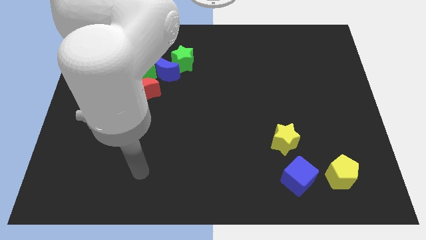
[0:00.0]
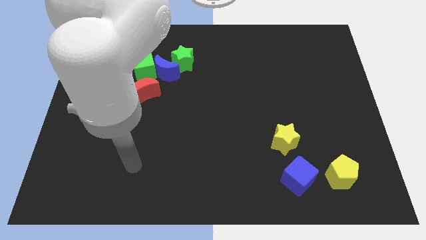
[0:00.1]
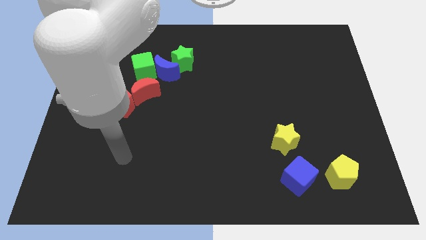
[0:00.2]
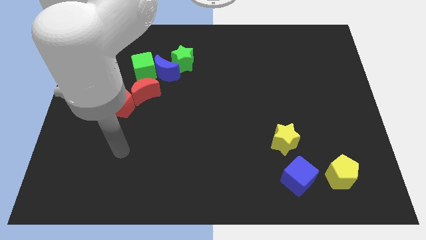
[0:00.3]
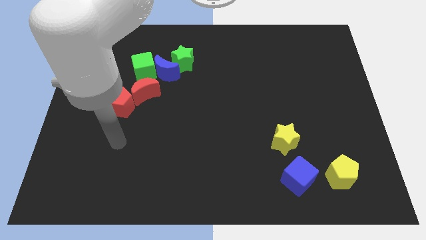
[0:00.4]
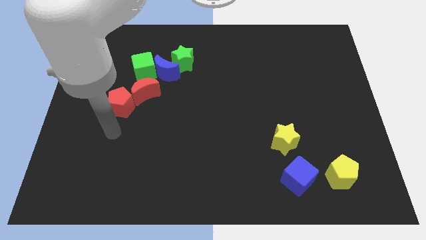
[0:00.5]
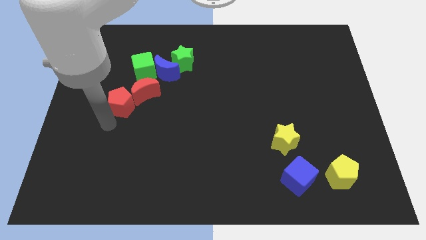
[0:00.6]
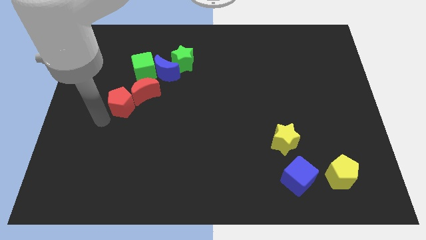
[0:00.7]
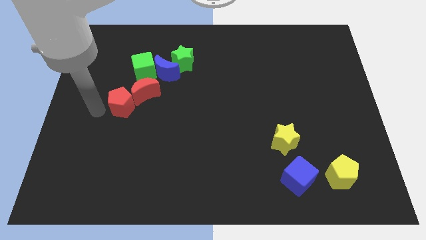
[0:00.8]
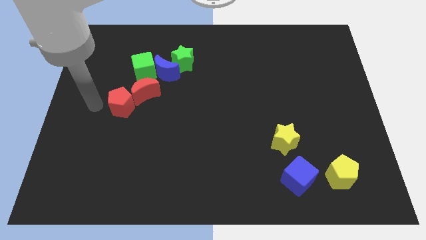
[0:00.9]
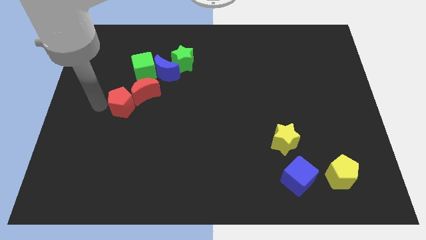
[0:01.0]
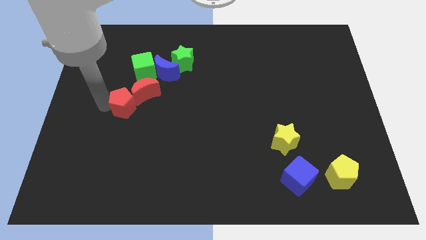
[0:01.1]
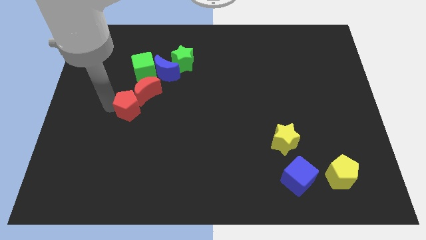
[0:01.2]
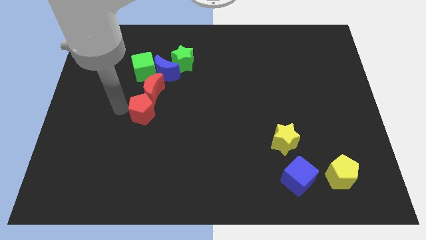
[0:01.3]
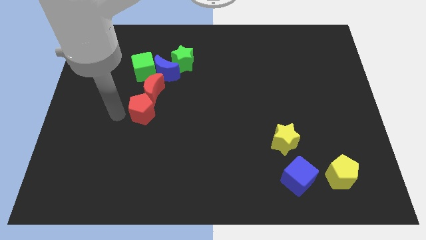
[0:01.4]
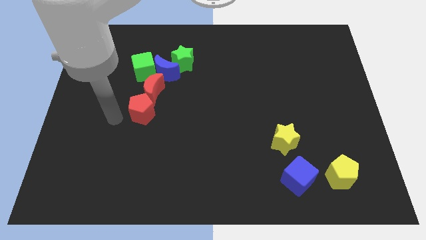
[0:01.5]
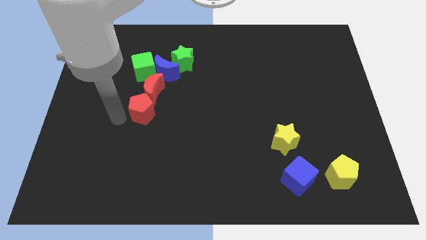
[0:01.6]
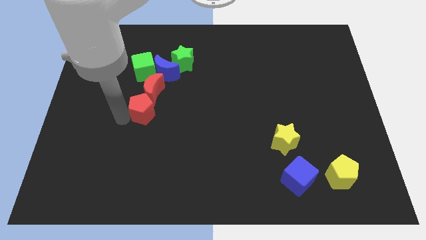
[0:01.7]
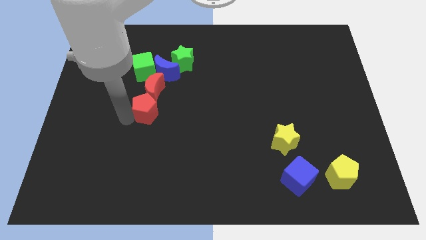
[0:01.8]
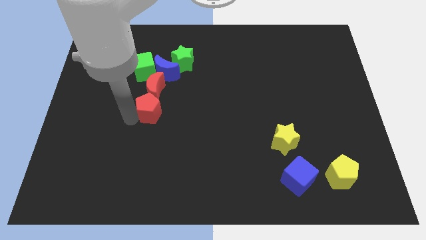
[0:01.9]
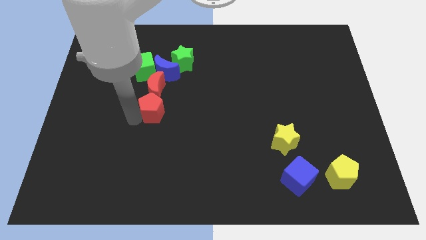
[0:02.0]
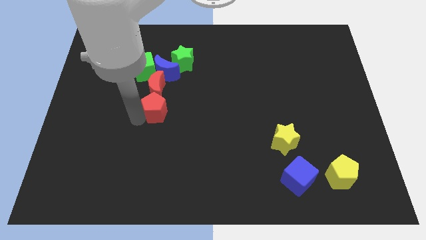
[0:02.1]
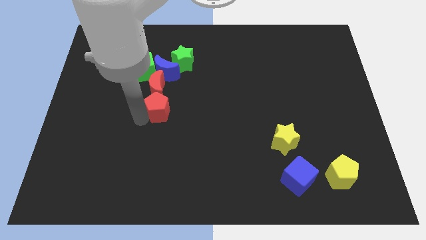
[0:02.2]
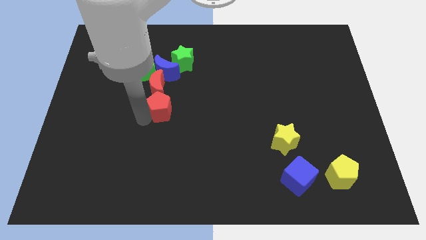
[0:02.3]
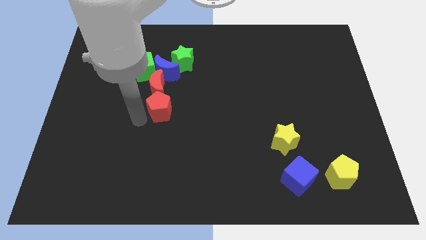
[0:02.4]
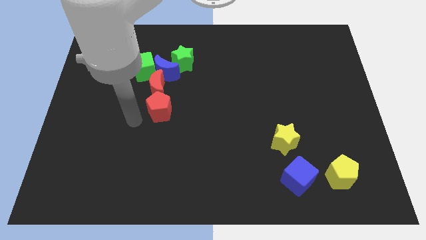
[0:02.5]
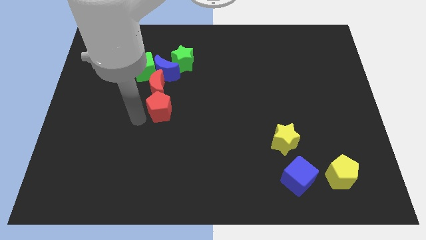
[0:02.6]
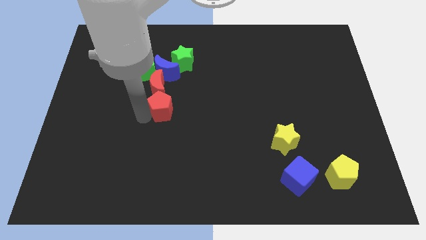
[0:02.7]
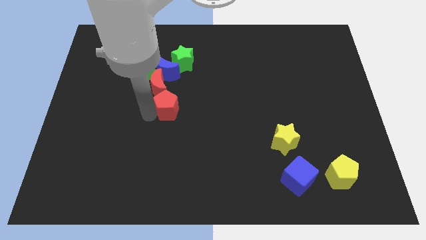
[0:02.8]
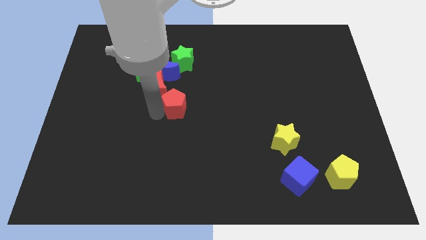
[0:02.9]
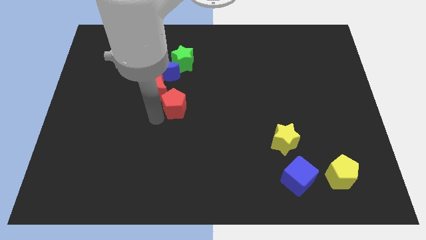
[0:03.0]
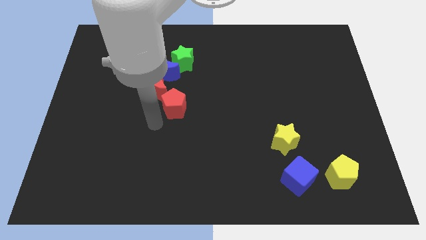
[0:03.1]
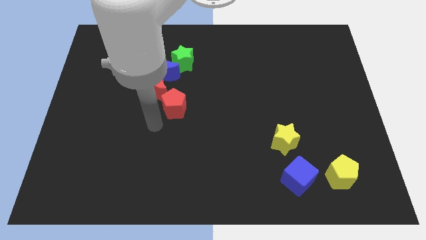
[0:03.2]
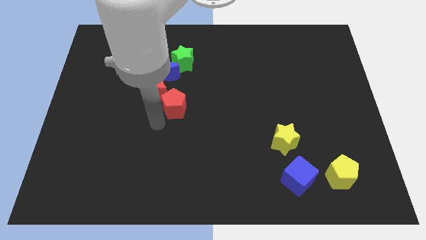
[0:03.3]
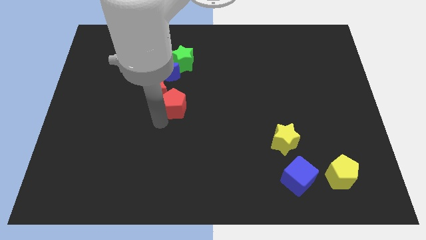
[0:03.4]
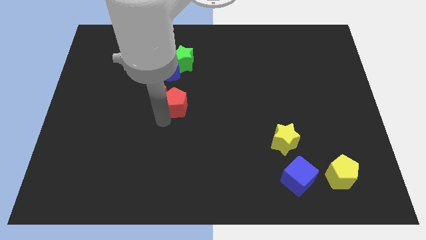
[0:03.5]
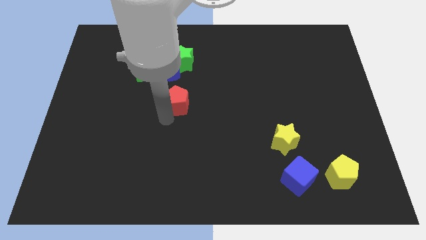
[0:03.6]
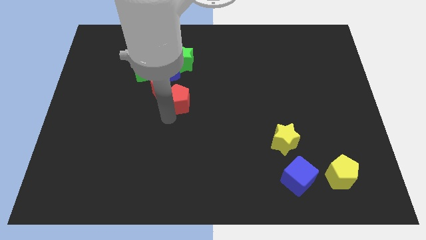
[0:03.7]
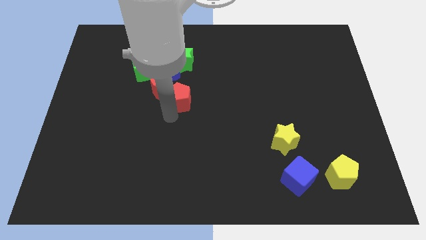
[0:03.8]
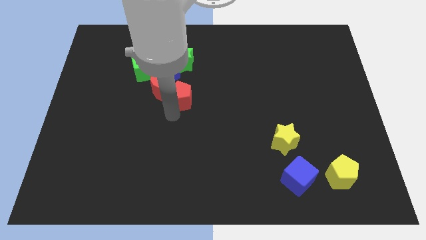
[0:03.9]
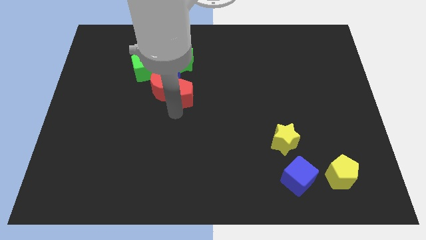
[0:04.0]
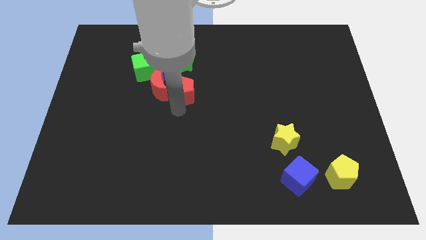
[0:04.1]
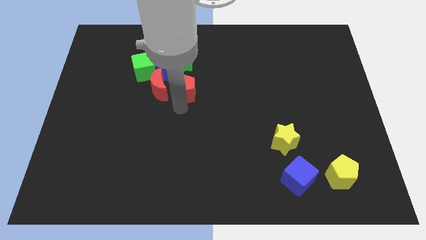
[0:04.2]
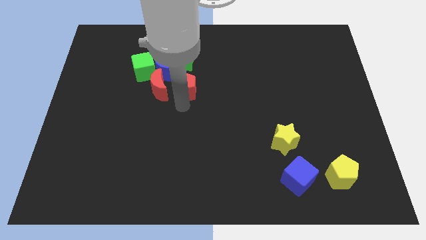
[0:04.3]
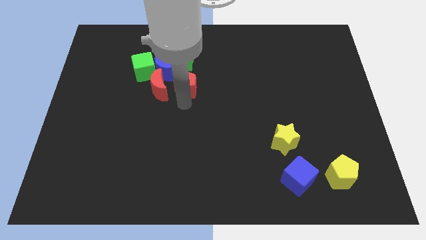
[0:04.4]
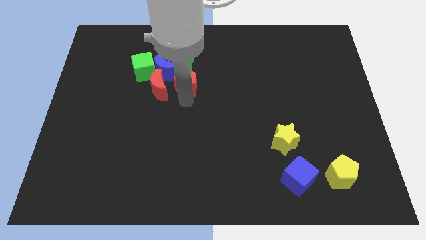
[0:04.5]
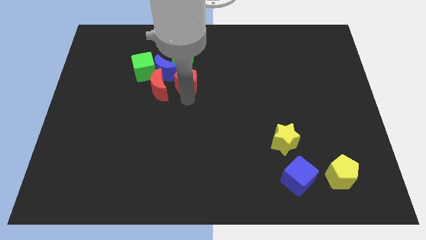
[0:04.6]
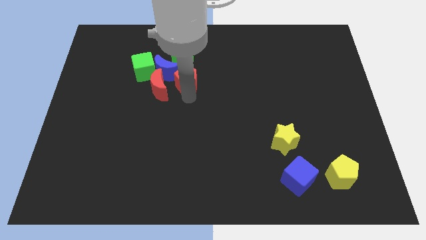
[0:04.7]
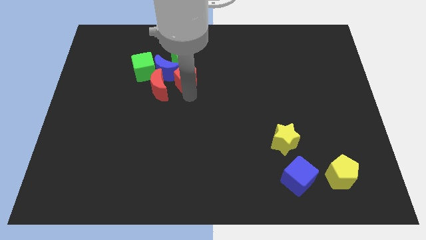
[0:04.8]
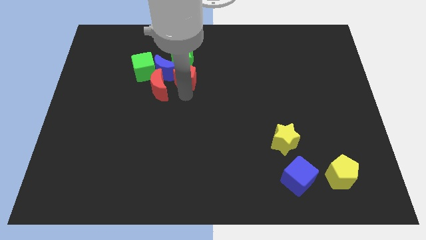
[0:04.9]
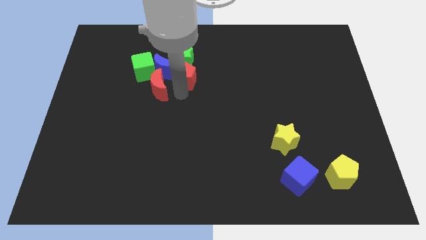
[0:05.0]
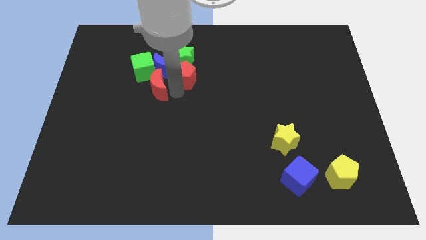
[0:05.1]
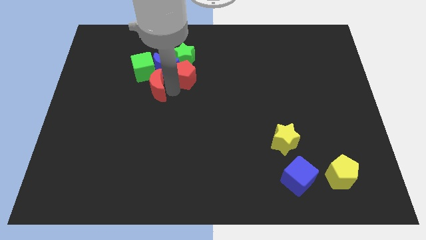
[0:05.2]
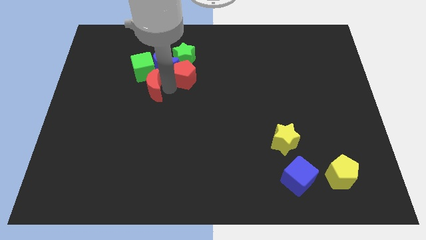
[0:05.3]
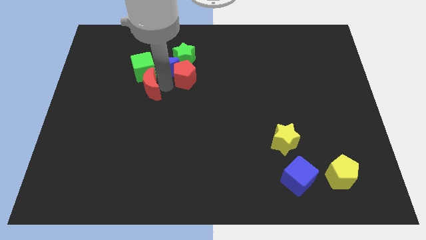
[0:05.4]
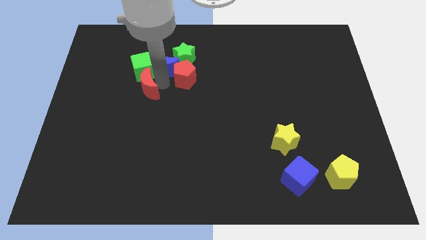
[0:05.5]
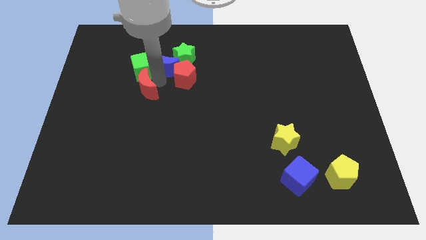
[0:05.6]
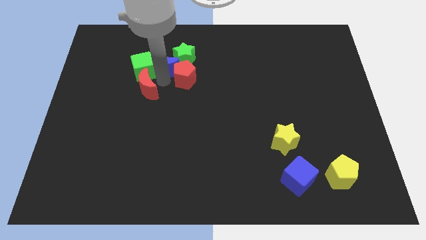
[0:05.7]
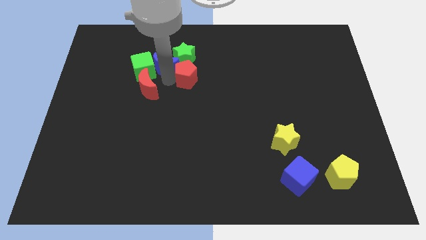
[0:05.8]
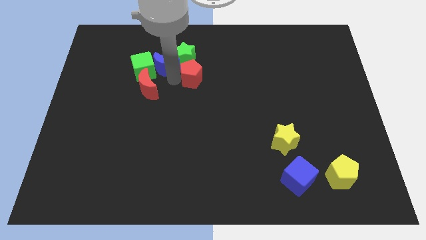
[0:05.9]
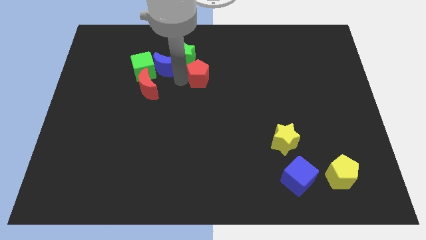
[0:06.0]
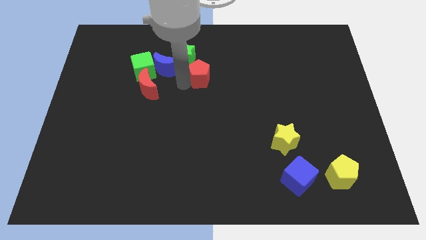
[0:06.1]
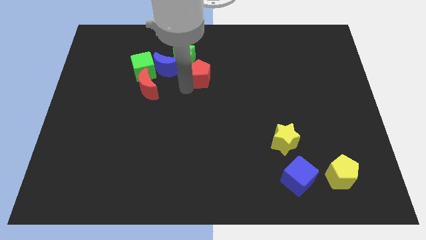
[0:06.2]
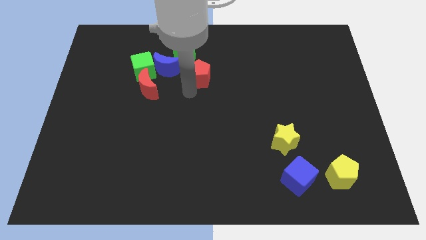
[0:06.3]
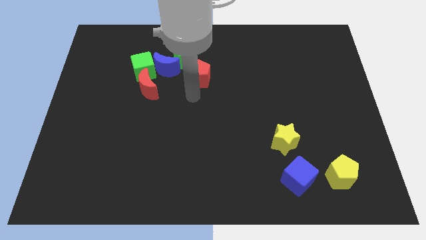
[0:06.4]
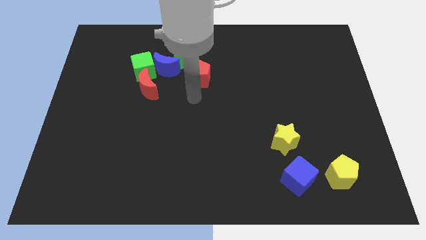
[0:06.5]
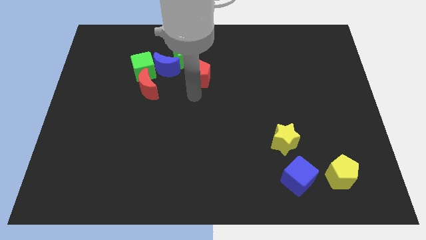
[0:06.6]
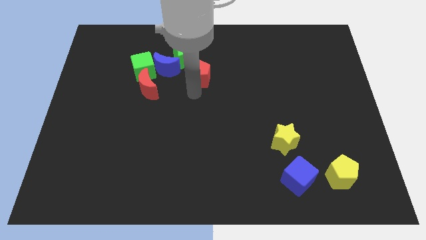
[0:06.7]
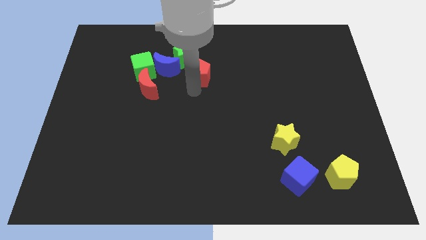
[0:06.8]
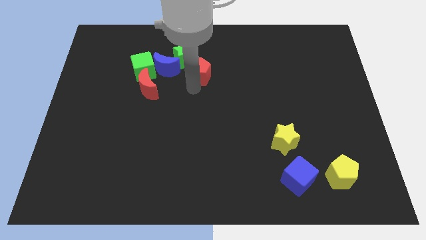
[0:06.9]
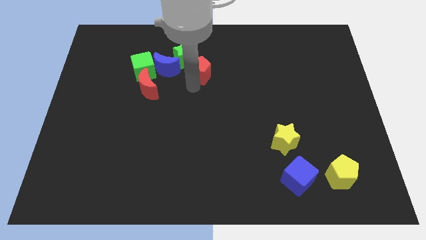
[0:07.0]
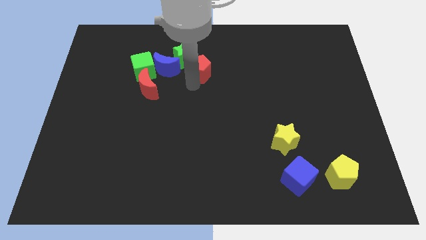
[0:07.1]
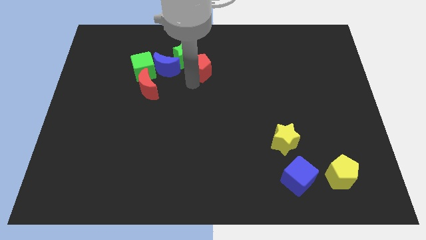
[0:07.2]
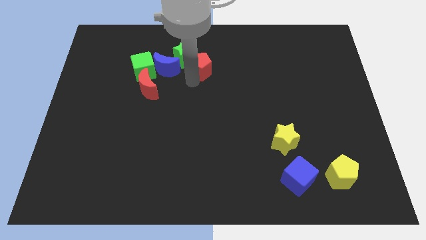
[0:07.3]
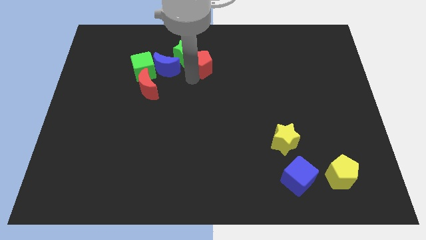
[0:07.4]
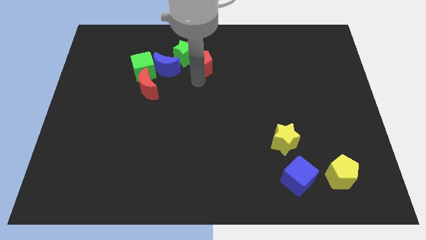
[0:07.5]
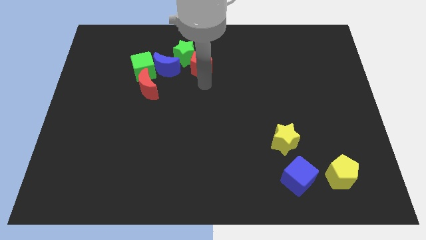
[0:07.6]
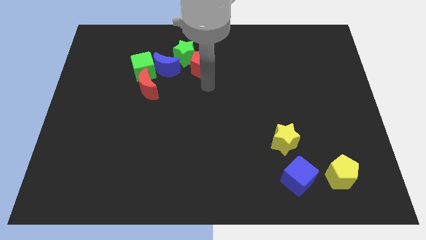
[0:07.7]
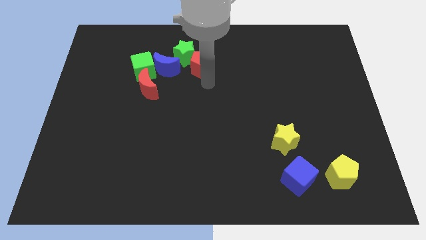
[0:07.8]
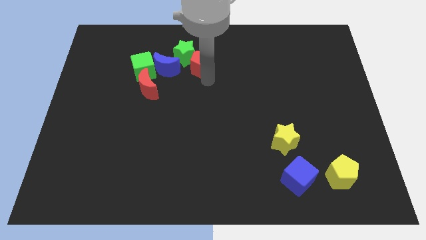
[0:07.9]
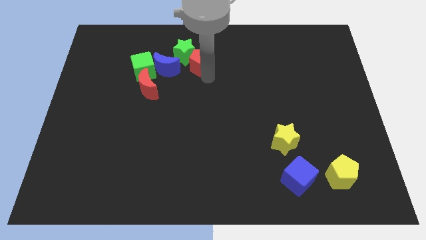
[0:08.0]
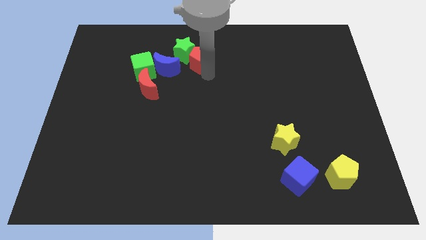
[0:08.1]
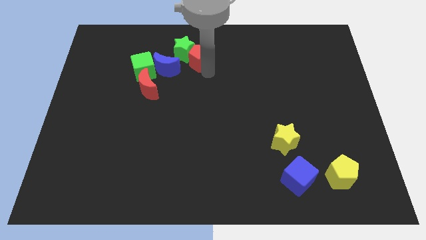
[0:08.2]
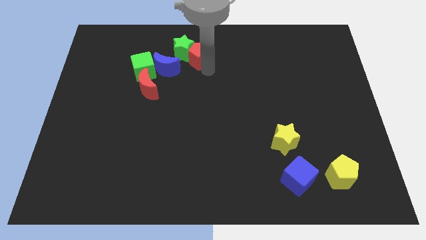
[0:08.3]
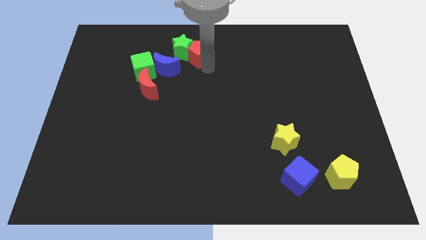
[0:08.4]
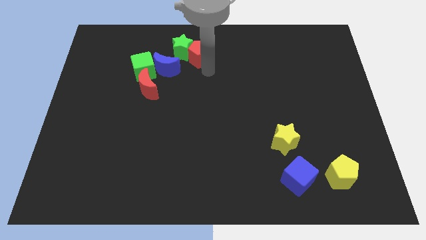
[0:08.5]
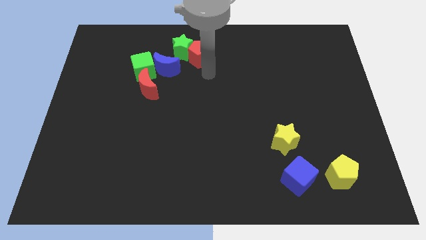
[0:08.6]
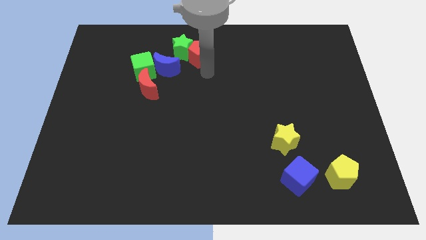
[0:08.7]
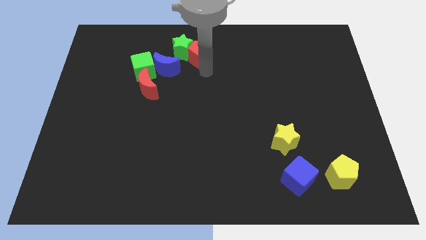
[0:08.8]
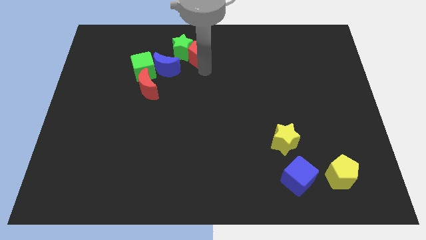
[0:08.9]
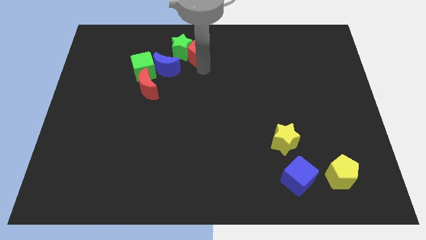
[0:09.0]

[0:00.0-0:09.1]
slide the red pentagon to the towards your base
